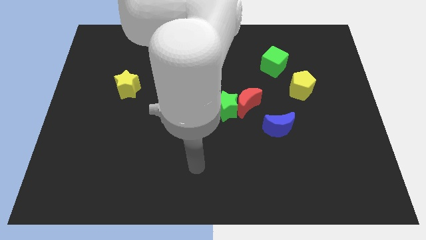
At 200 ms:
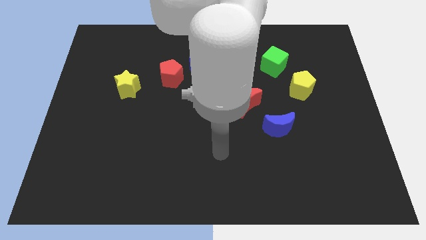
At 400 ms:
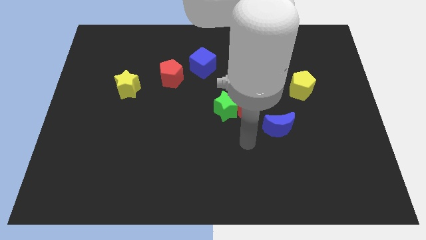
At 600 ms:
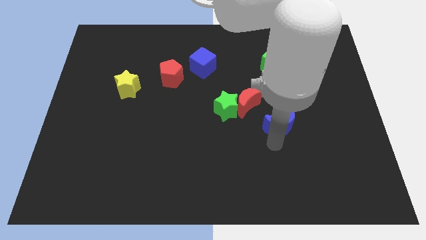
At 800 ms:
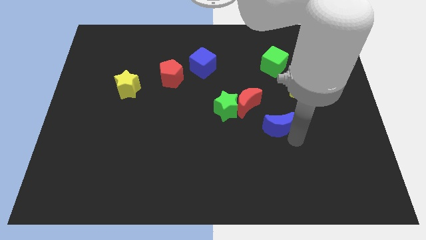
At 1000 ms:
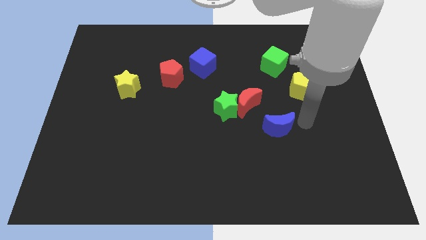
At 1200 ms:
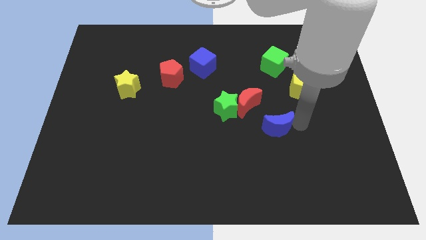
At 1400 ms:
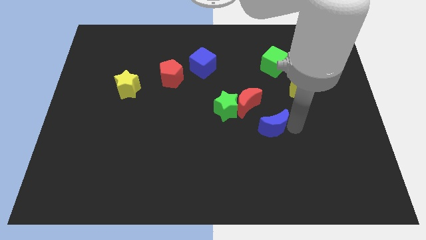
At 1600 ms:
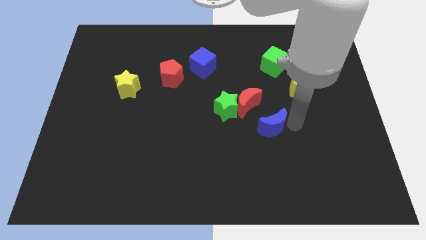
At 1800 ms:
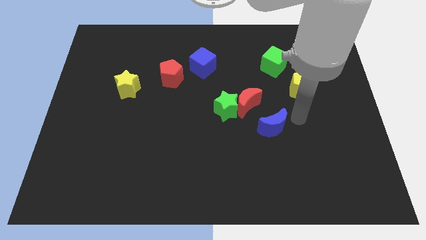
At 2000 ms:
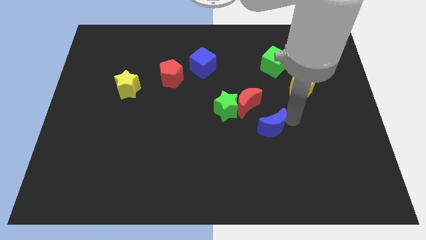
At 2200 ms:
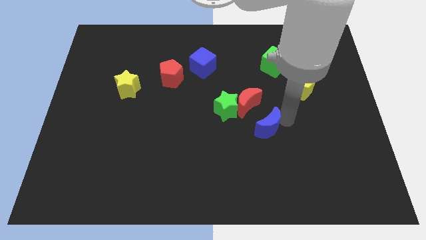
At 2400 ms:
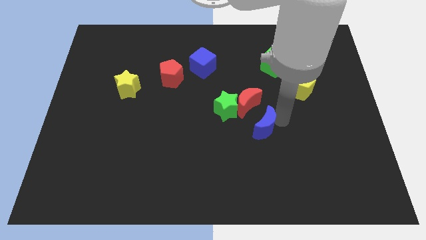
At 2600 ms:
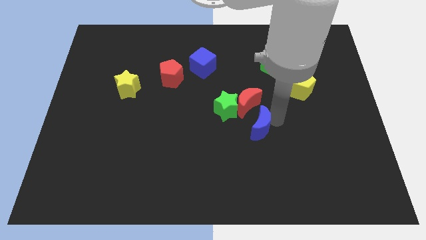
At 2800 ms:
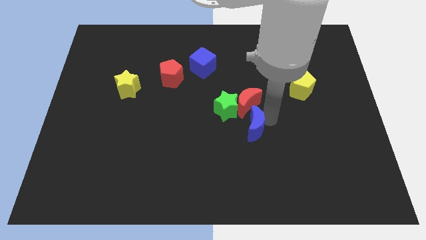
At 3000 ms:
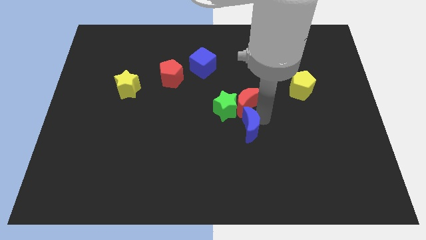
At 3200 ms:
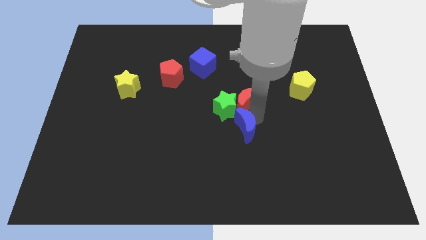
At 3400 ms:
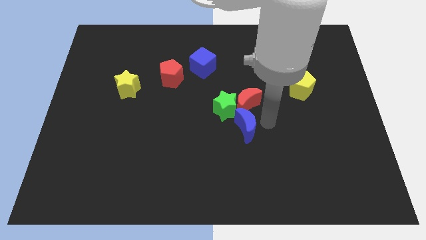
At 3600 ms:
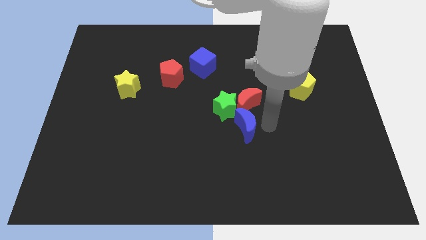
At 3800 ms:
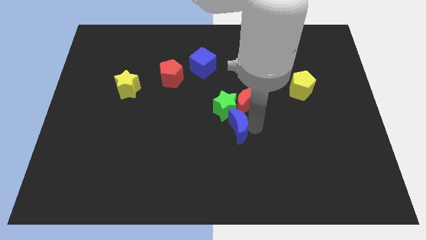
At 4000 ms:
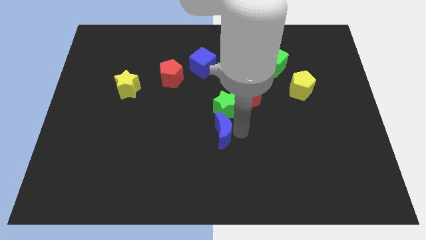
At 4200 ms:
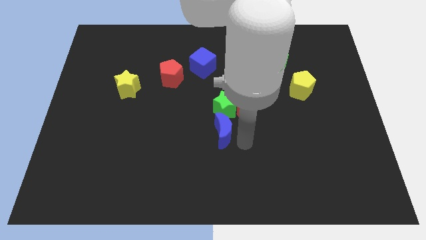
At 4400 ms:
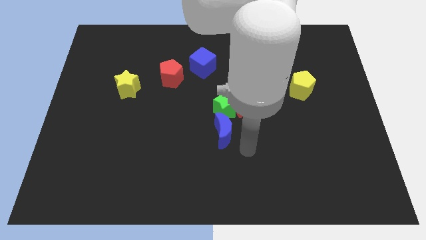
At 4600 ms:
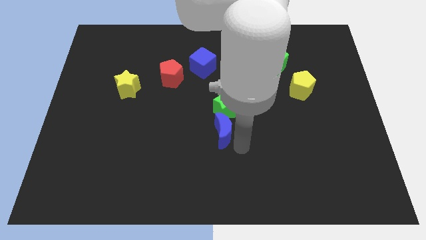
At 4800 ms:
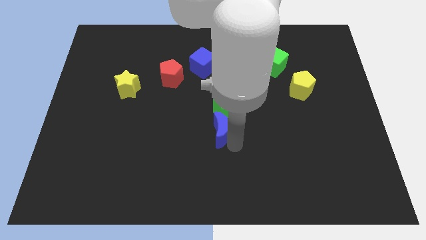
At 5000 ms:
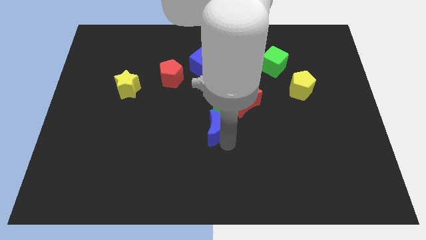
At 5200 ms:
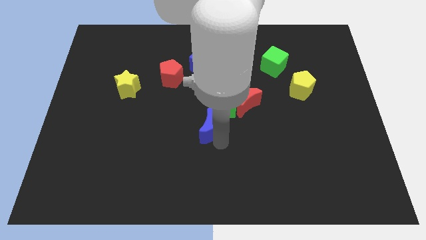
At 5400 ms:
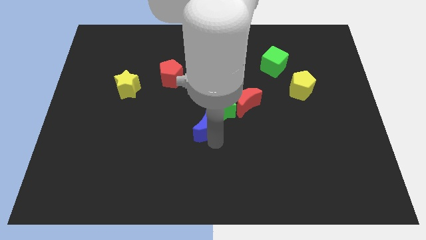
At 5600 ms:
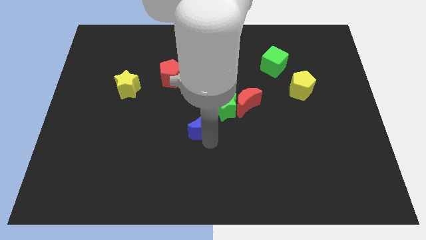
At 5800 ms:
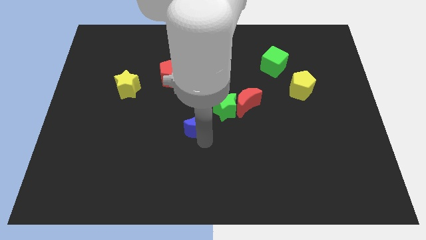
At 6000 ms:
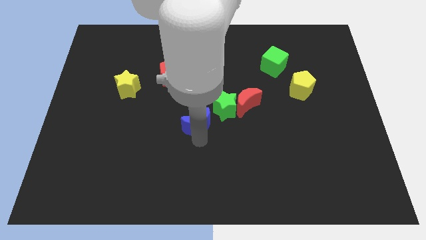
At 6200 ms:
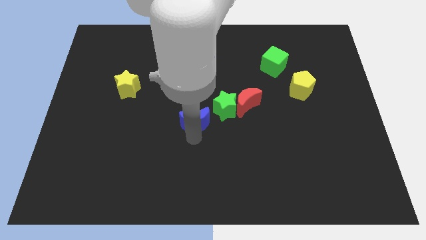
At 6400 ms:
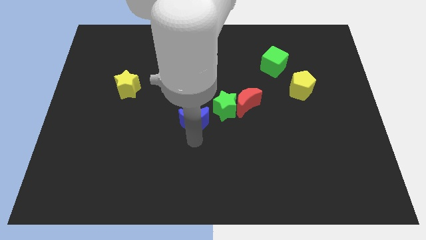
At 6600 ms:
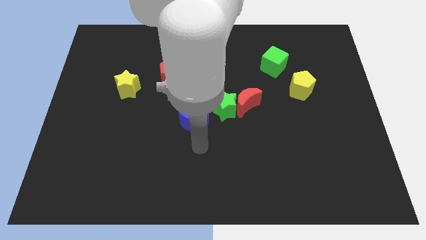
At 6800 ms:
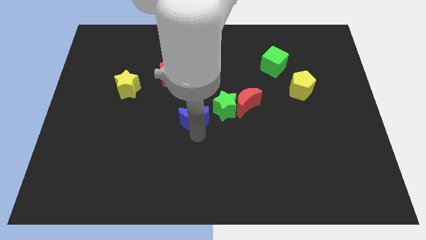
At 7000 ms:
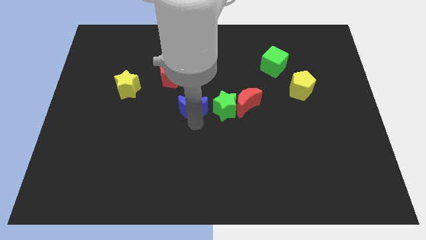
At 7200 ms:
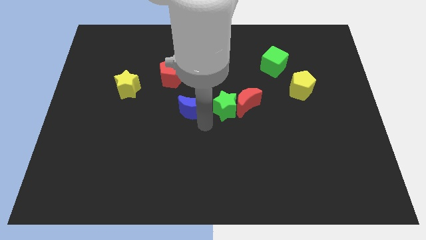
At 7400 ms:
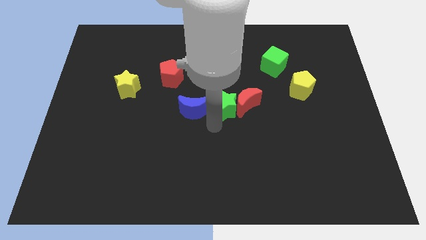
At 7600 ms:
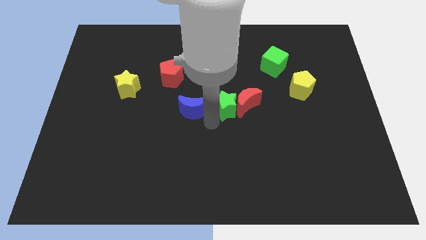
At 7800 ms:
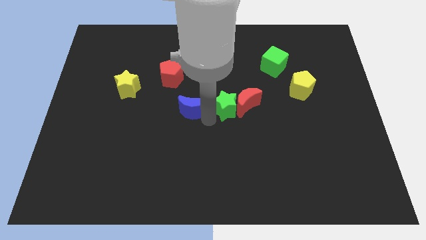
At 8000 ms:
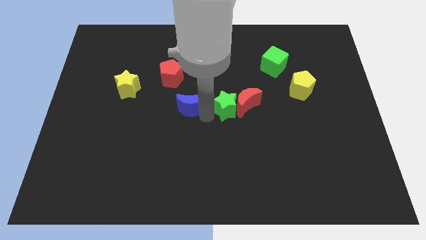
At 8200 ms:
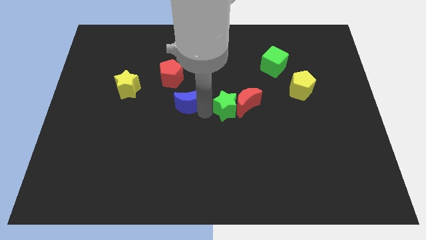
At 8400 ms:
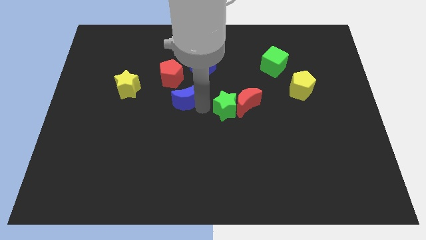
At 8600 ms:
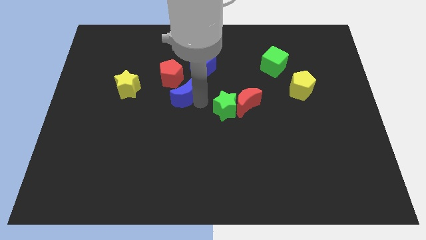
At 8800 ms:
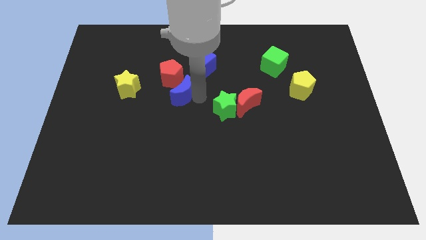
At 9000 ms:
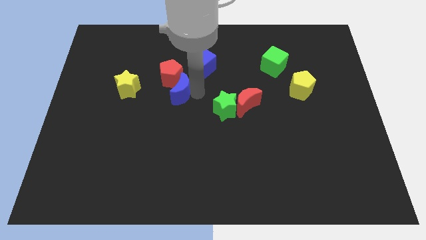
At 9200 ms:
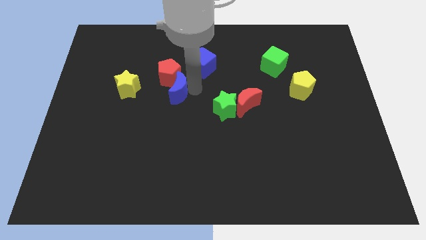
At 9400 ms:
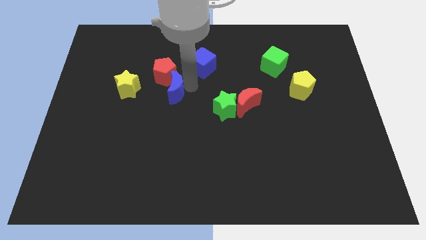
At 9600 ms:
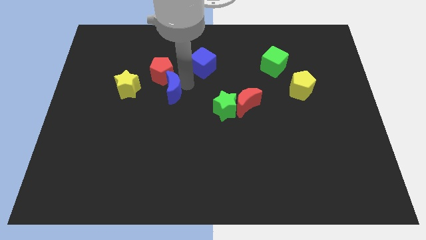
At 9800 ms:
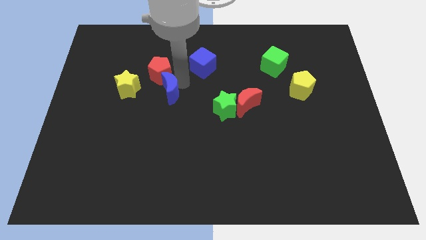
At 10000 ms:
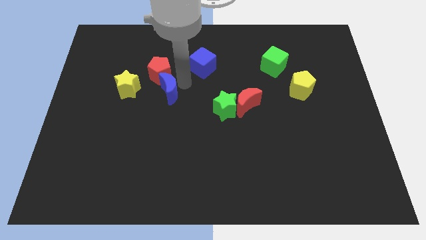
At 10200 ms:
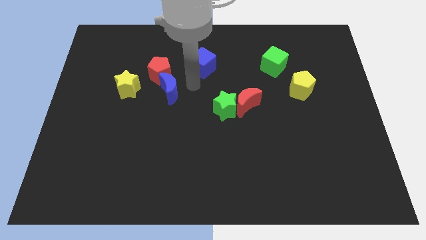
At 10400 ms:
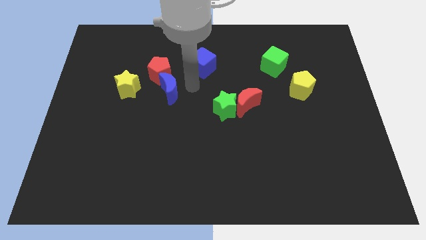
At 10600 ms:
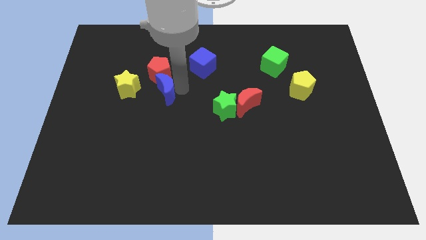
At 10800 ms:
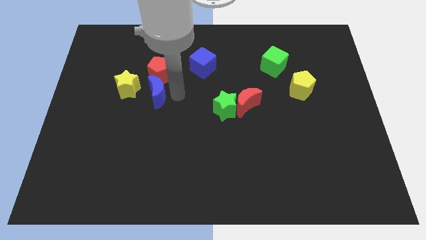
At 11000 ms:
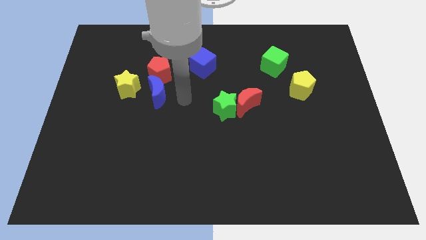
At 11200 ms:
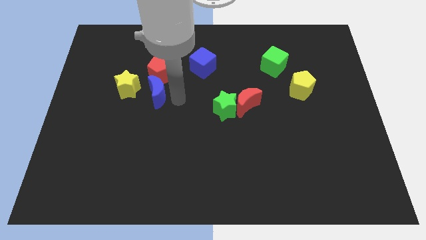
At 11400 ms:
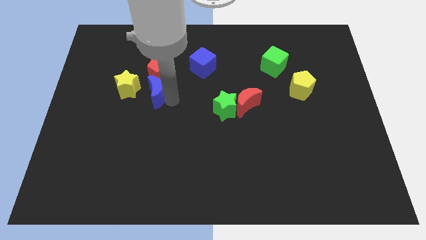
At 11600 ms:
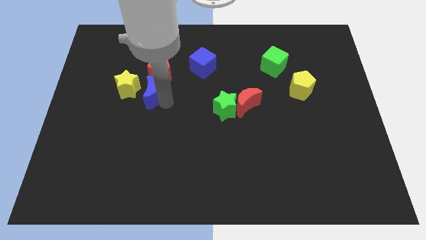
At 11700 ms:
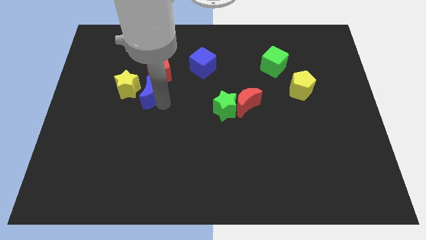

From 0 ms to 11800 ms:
move the blue moon next to the yellow star
